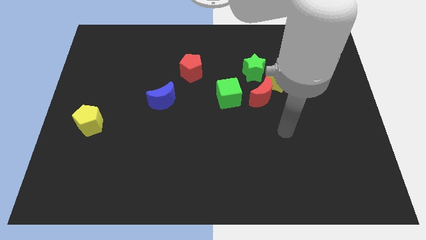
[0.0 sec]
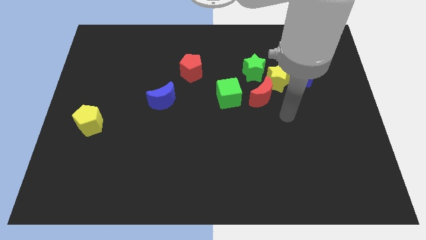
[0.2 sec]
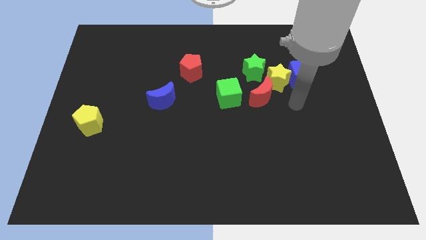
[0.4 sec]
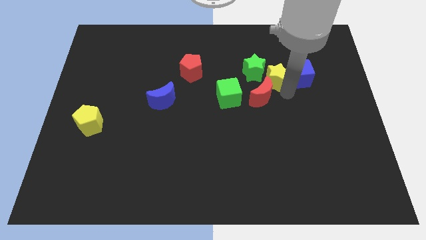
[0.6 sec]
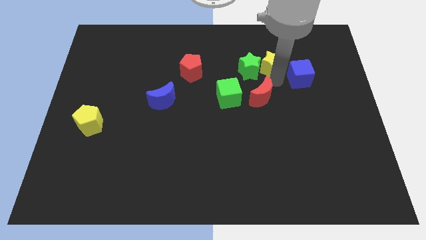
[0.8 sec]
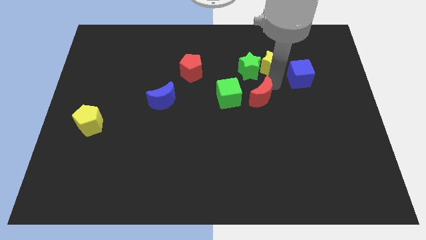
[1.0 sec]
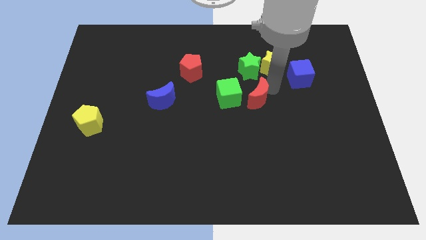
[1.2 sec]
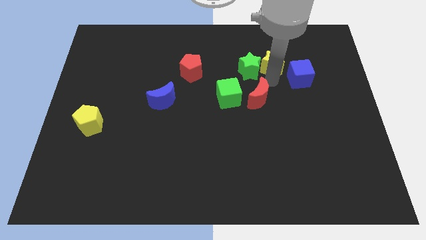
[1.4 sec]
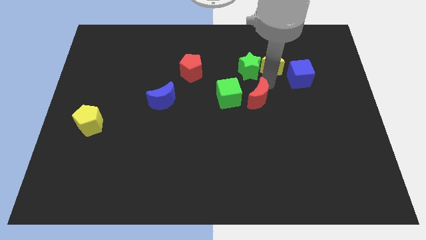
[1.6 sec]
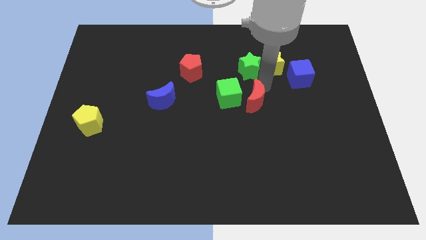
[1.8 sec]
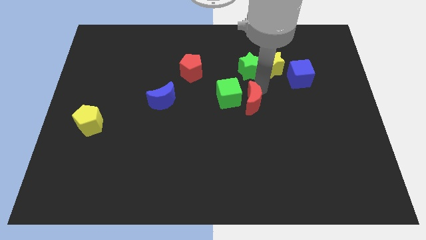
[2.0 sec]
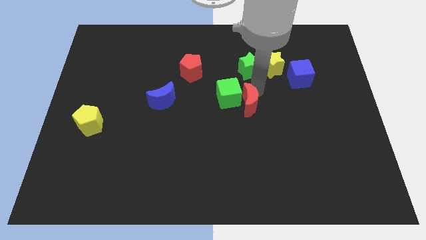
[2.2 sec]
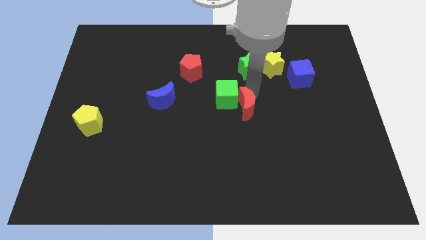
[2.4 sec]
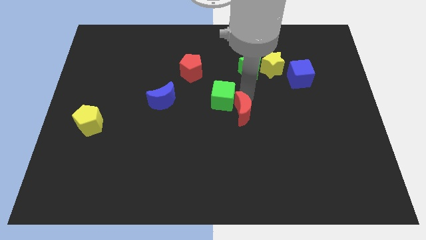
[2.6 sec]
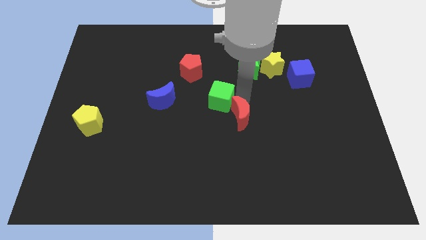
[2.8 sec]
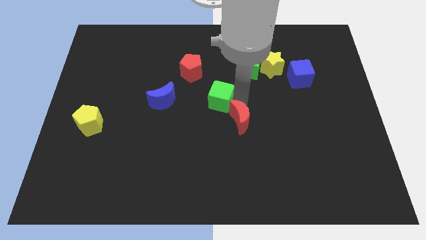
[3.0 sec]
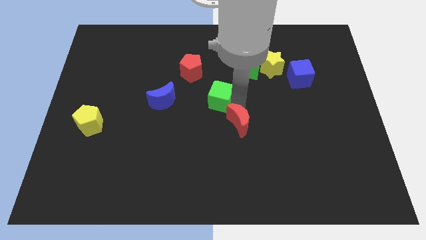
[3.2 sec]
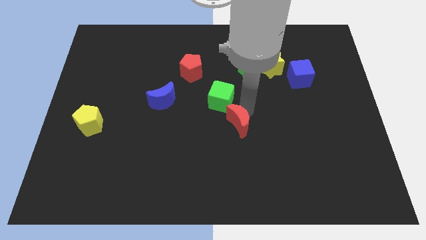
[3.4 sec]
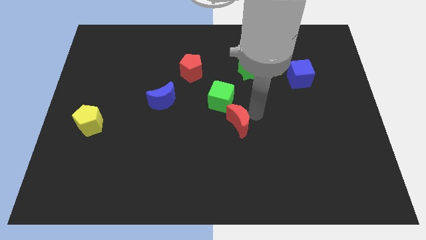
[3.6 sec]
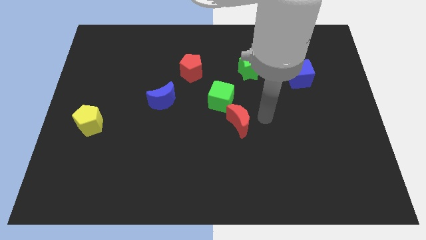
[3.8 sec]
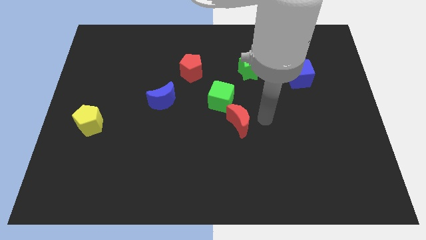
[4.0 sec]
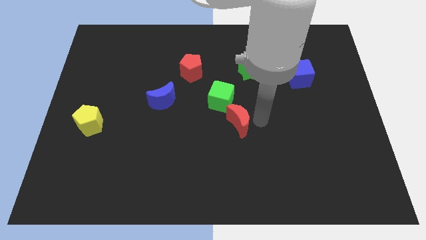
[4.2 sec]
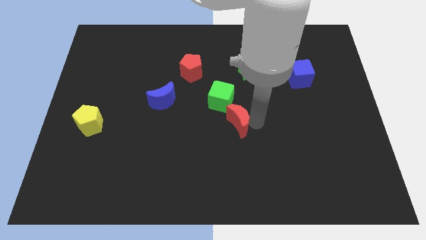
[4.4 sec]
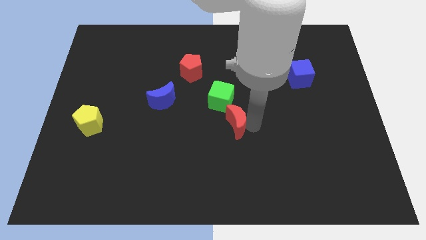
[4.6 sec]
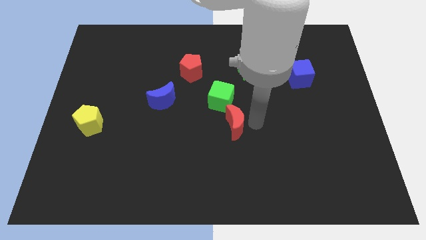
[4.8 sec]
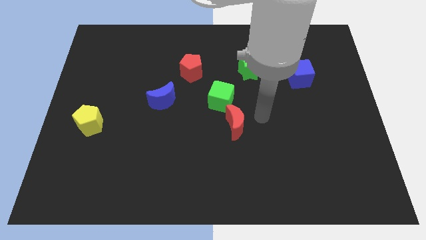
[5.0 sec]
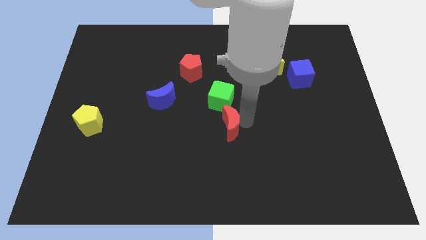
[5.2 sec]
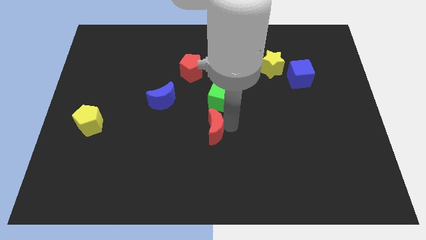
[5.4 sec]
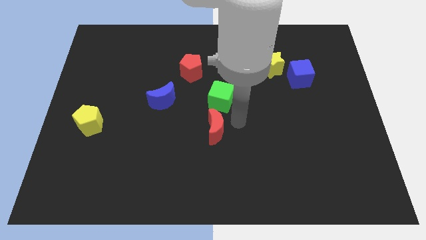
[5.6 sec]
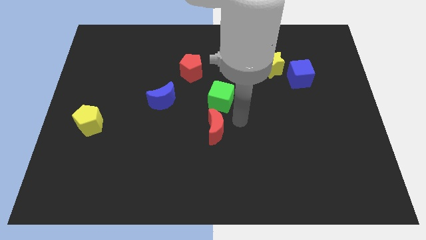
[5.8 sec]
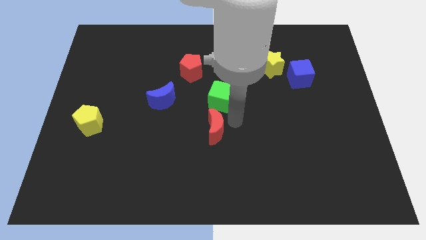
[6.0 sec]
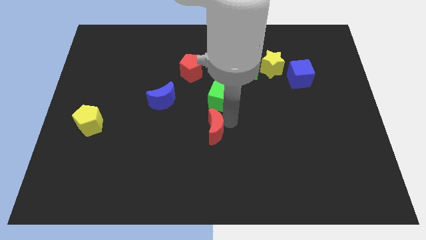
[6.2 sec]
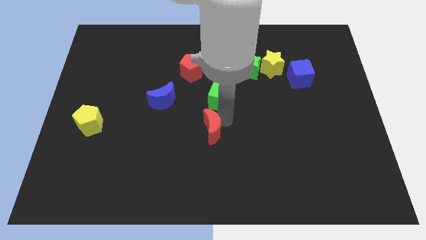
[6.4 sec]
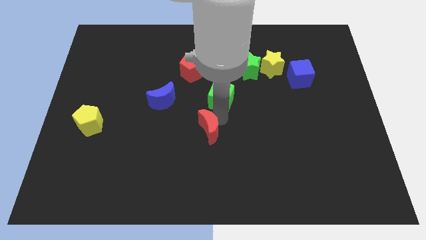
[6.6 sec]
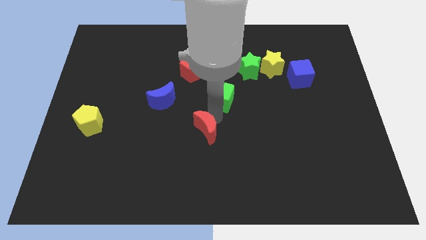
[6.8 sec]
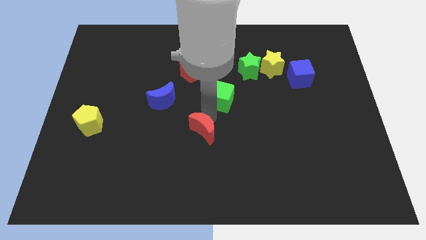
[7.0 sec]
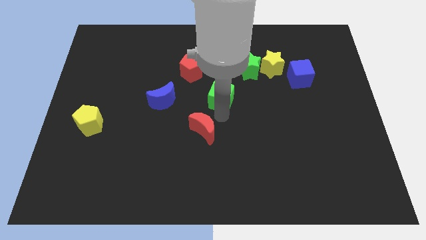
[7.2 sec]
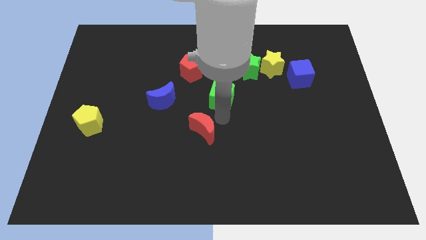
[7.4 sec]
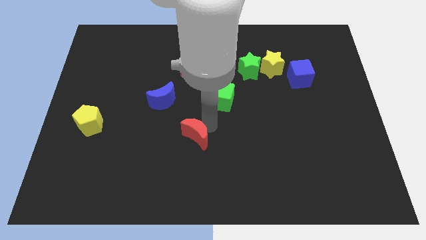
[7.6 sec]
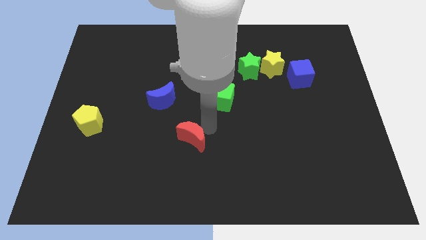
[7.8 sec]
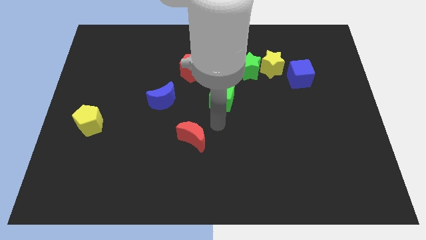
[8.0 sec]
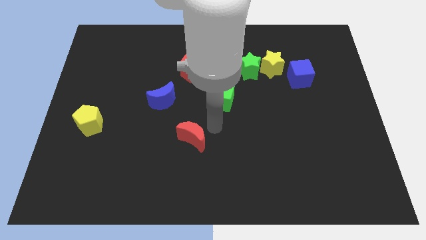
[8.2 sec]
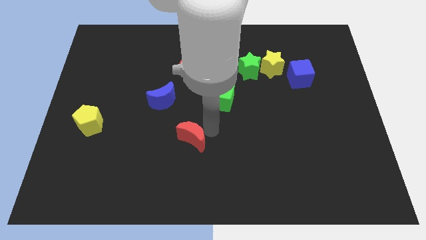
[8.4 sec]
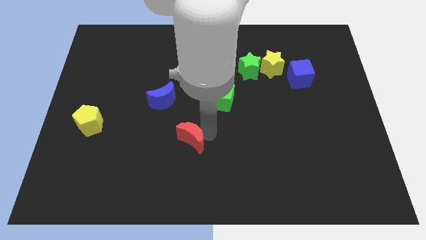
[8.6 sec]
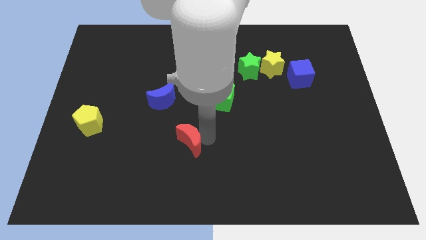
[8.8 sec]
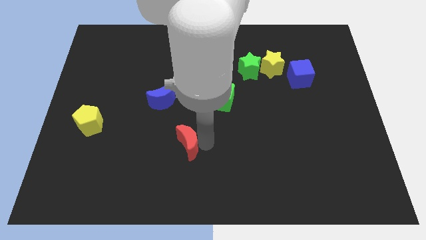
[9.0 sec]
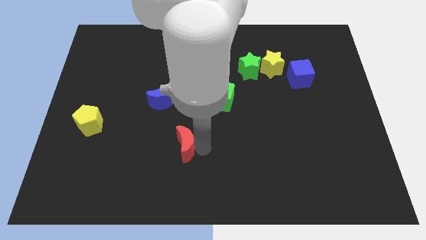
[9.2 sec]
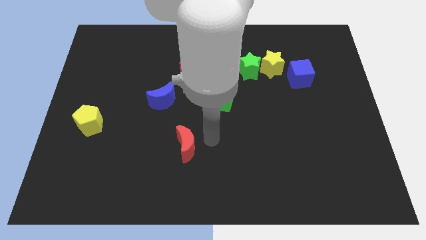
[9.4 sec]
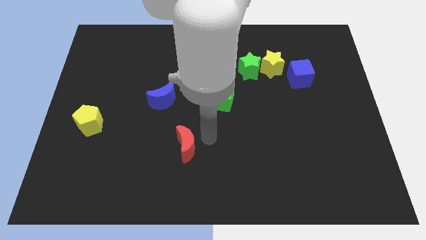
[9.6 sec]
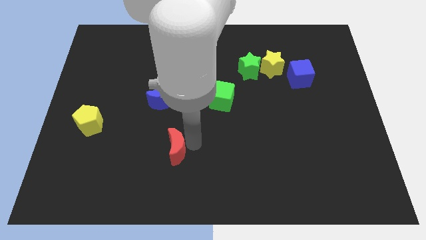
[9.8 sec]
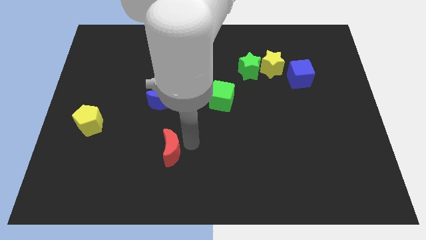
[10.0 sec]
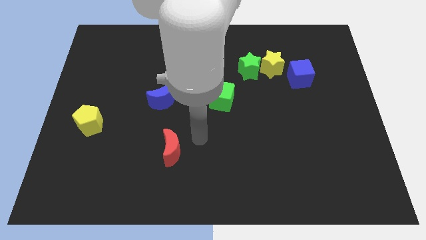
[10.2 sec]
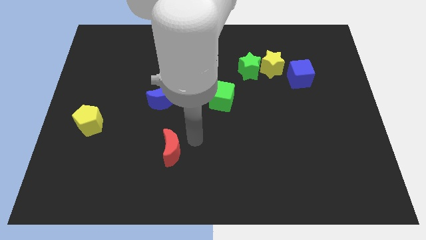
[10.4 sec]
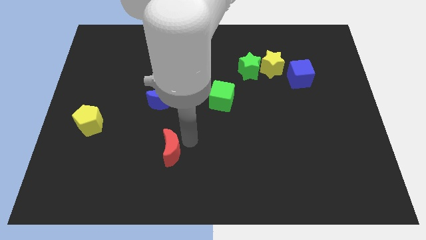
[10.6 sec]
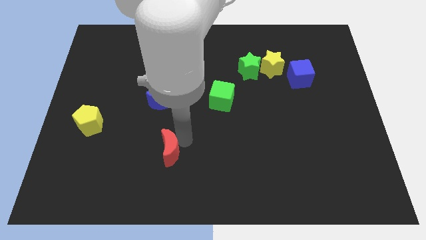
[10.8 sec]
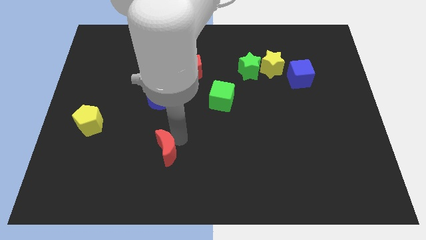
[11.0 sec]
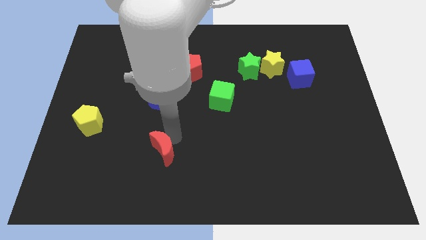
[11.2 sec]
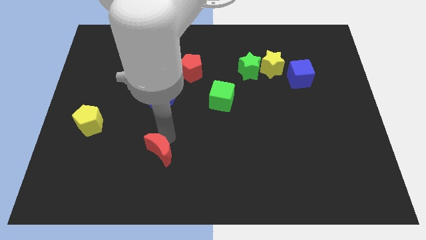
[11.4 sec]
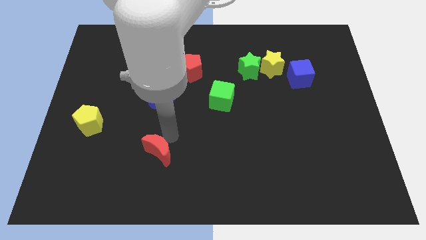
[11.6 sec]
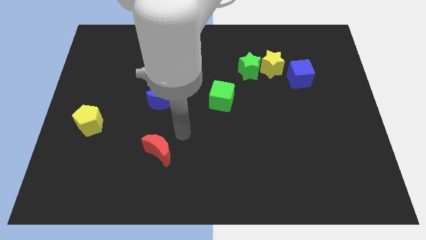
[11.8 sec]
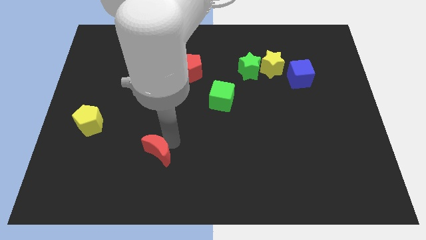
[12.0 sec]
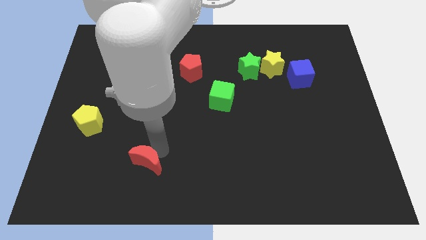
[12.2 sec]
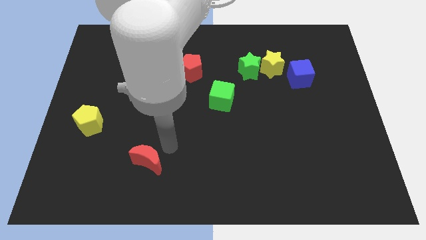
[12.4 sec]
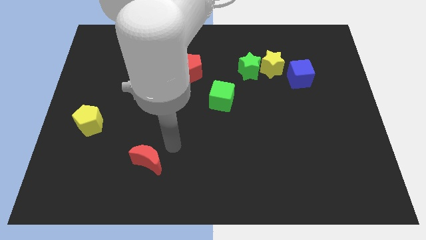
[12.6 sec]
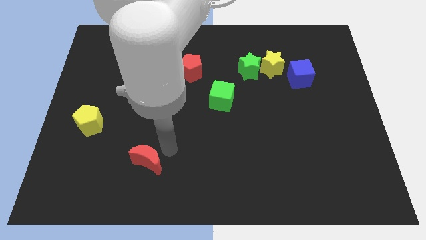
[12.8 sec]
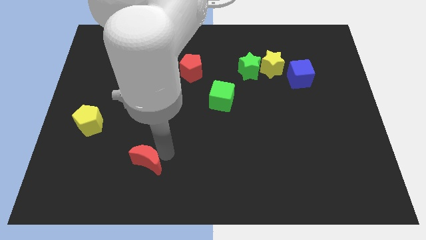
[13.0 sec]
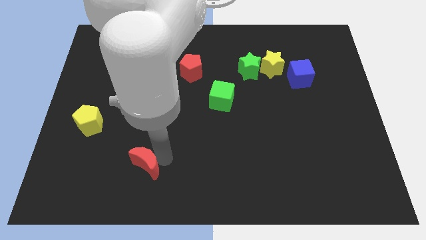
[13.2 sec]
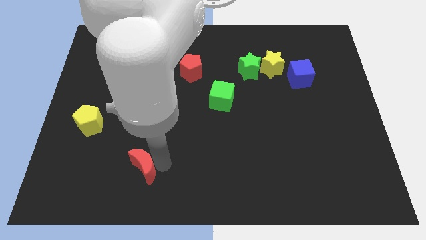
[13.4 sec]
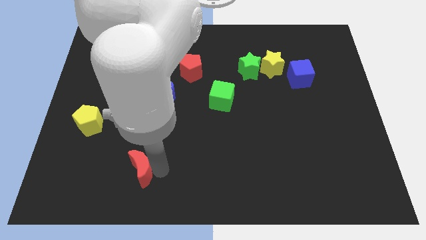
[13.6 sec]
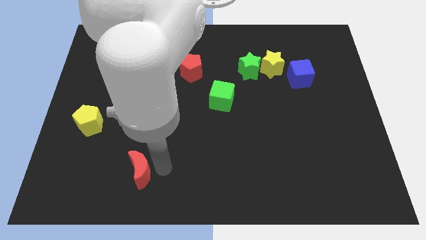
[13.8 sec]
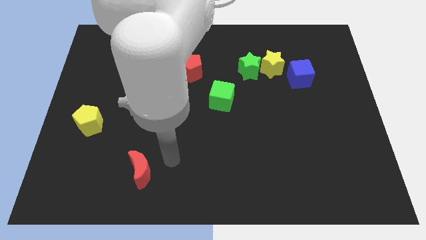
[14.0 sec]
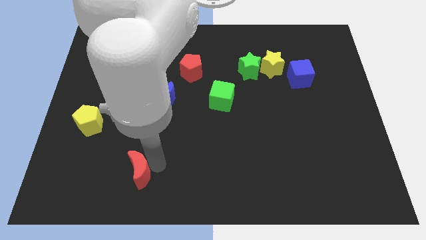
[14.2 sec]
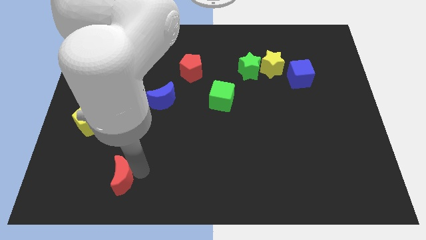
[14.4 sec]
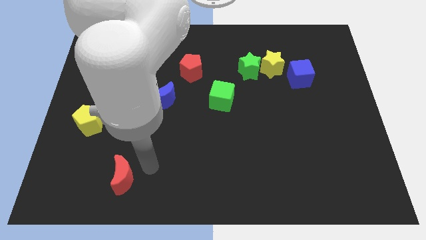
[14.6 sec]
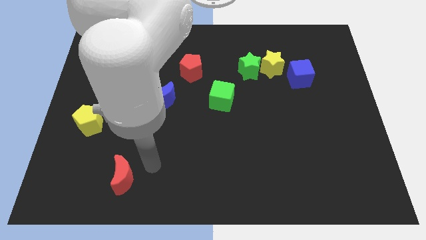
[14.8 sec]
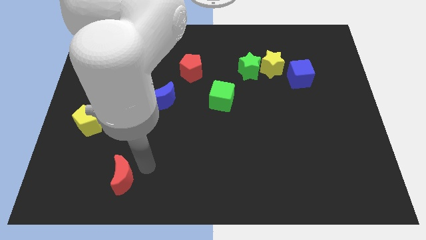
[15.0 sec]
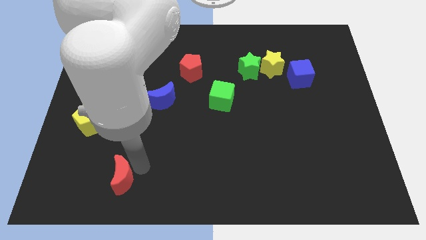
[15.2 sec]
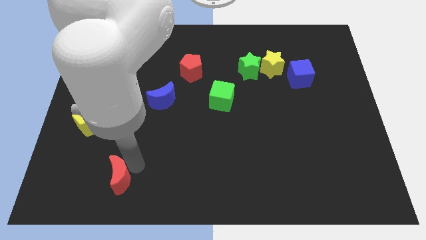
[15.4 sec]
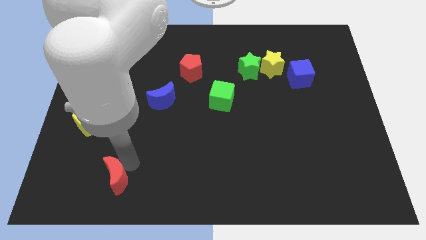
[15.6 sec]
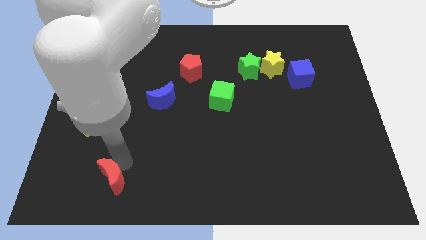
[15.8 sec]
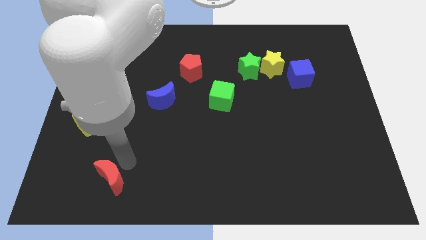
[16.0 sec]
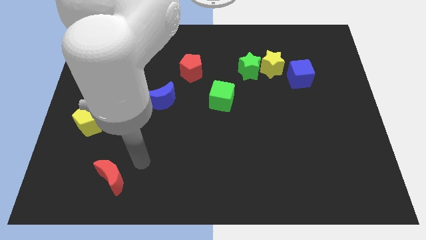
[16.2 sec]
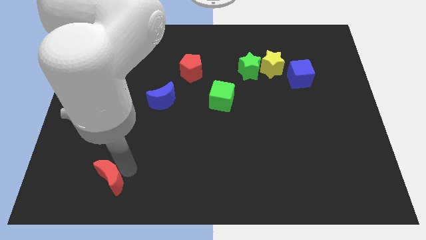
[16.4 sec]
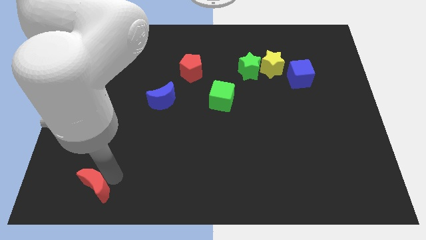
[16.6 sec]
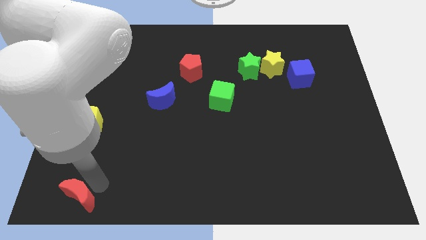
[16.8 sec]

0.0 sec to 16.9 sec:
move the red moon to the bottom left
